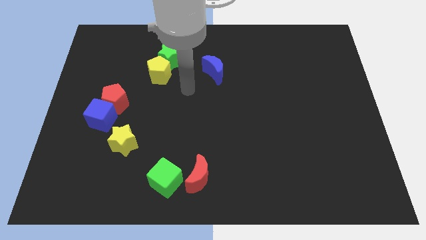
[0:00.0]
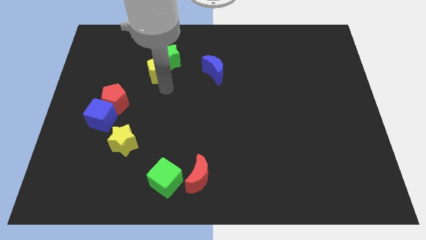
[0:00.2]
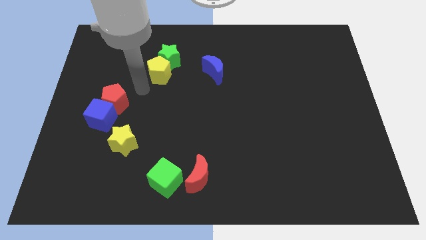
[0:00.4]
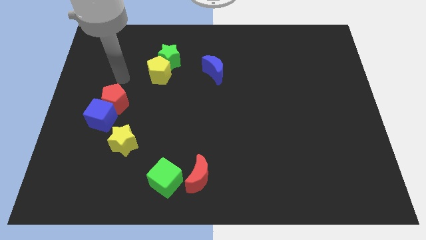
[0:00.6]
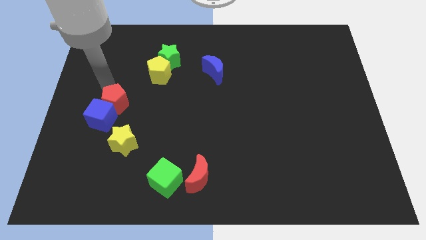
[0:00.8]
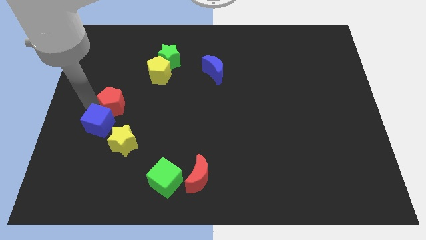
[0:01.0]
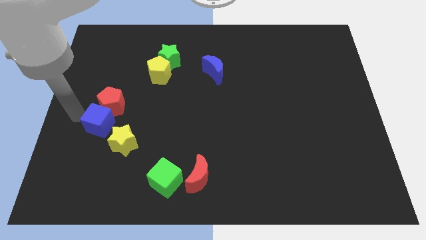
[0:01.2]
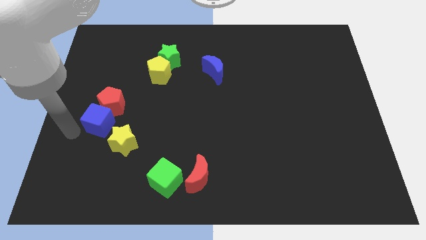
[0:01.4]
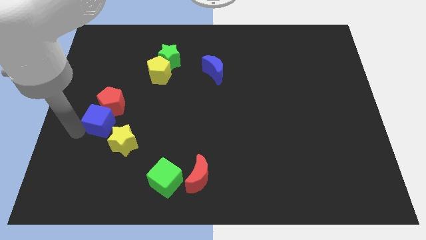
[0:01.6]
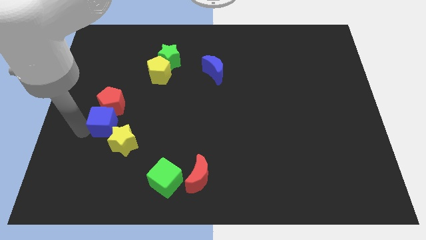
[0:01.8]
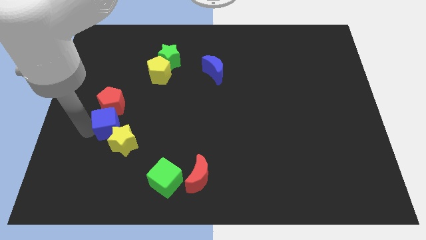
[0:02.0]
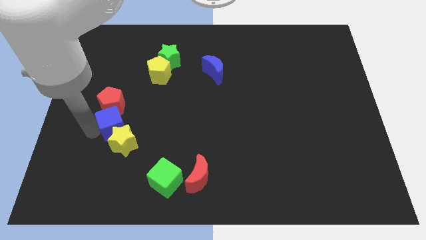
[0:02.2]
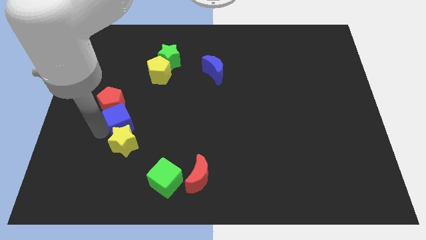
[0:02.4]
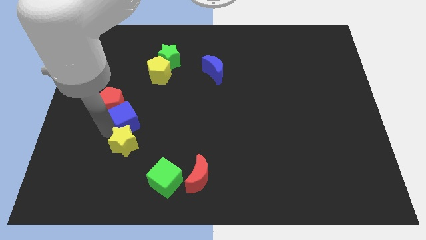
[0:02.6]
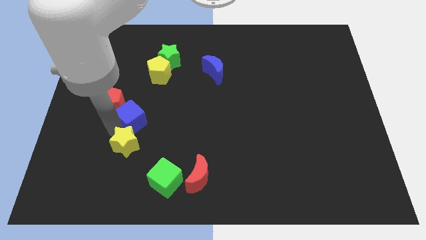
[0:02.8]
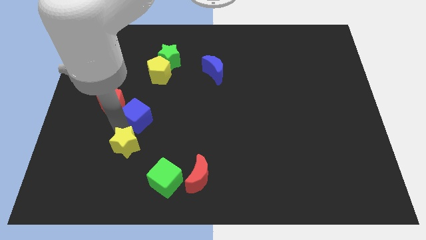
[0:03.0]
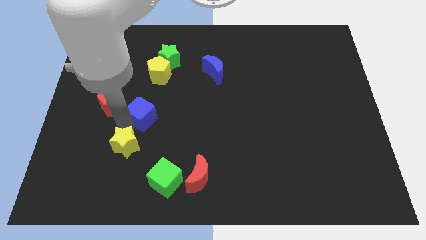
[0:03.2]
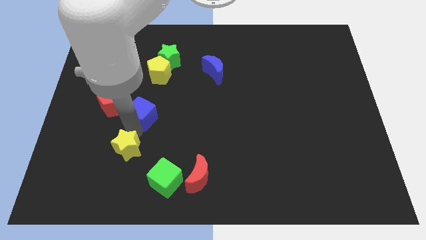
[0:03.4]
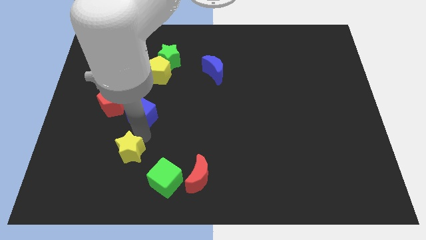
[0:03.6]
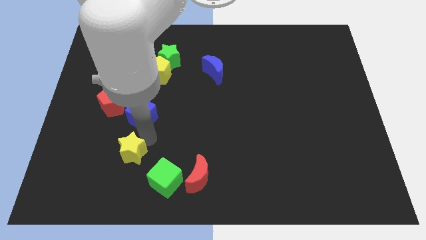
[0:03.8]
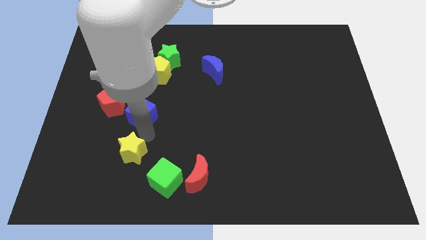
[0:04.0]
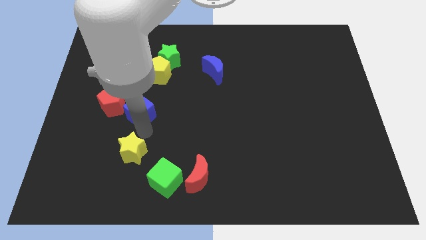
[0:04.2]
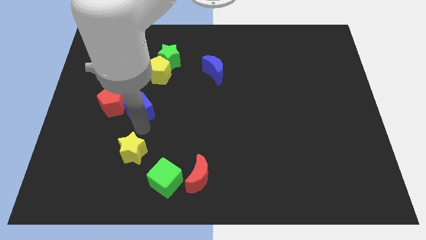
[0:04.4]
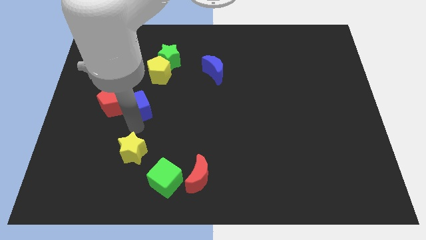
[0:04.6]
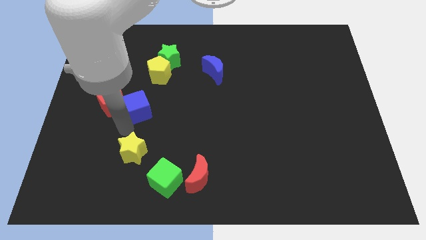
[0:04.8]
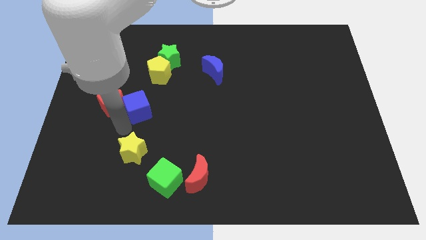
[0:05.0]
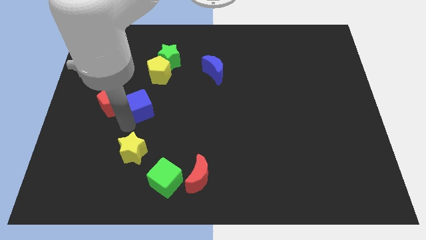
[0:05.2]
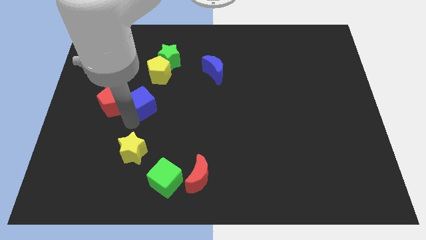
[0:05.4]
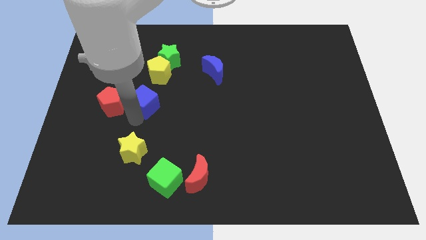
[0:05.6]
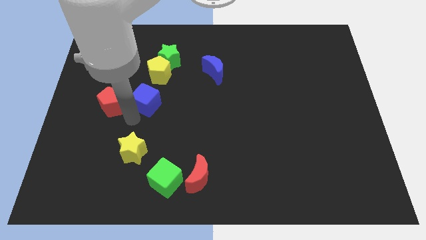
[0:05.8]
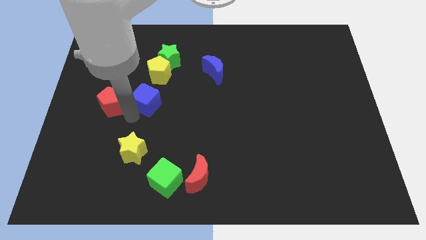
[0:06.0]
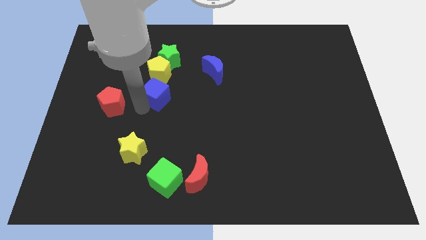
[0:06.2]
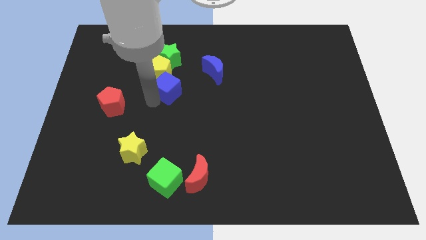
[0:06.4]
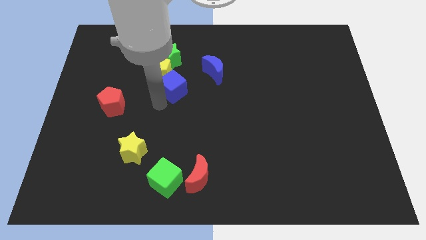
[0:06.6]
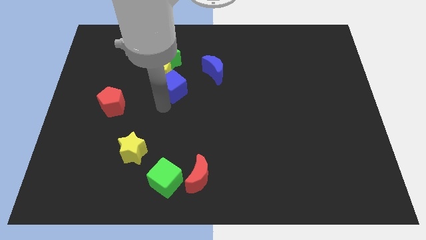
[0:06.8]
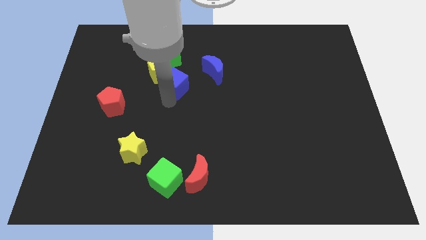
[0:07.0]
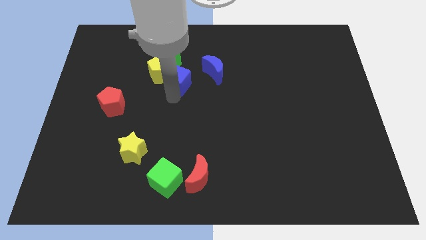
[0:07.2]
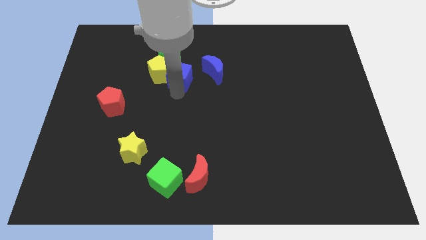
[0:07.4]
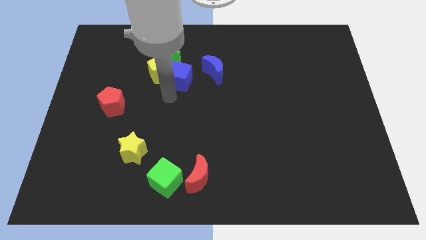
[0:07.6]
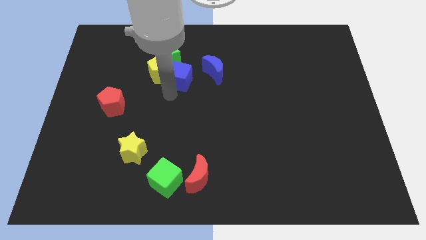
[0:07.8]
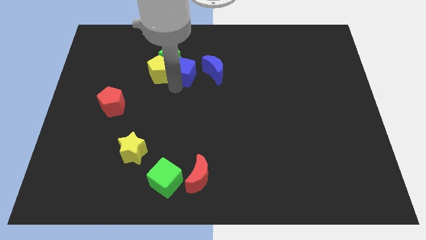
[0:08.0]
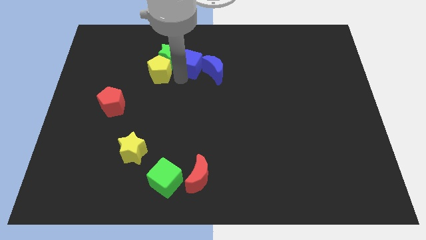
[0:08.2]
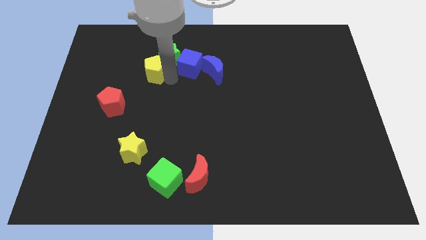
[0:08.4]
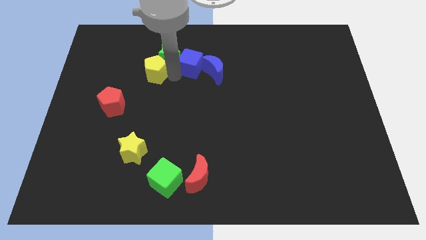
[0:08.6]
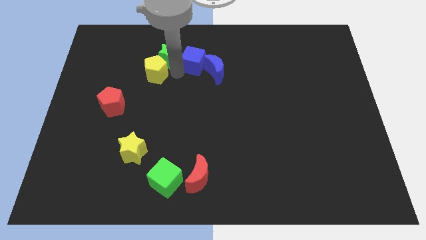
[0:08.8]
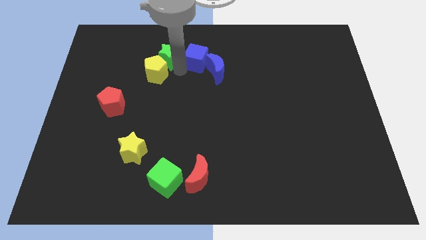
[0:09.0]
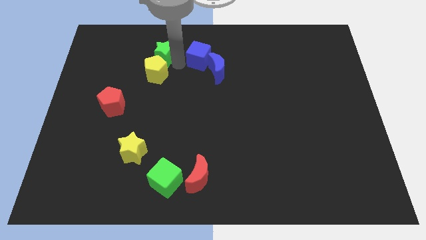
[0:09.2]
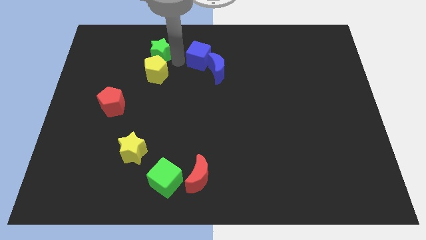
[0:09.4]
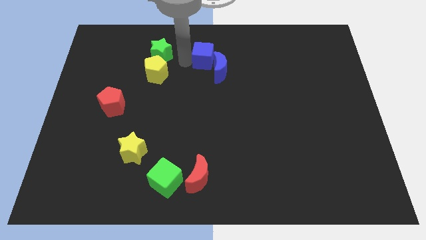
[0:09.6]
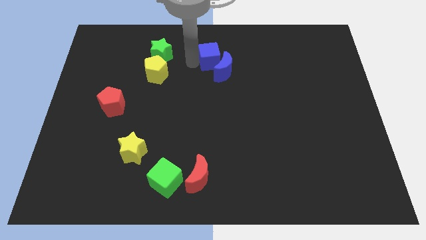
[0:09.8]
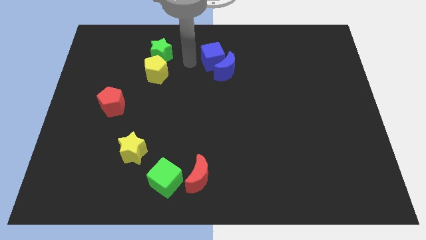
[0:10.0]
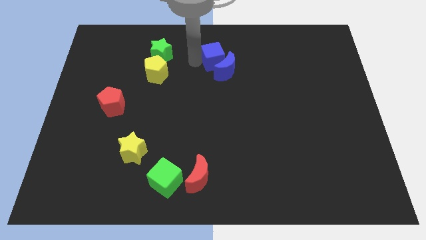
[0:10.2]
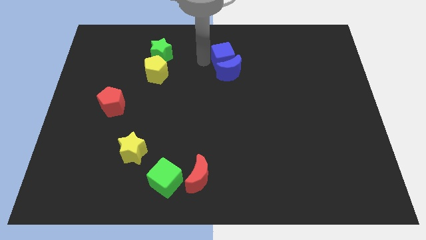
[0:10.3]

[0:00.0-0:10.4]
move the blue cube diagonally up and to the right of the blue moon

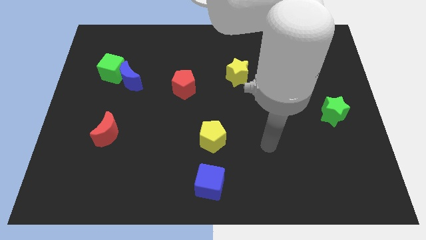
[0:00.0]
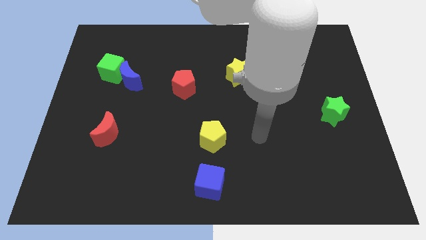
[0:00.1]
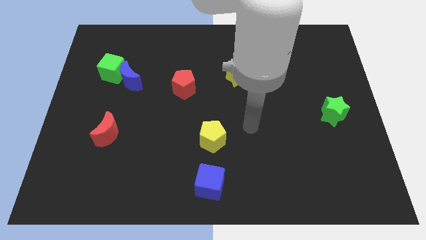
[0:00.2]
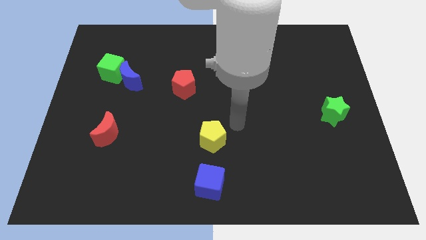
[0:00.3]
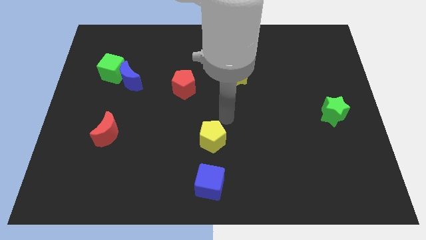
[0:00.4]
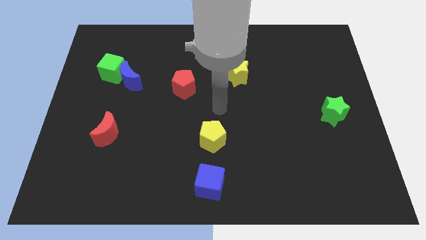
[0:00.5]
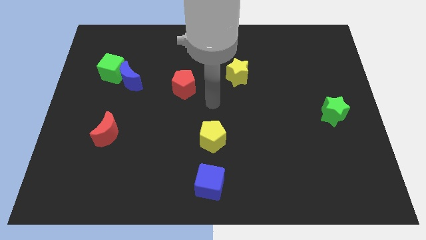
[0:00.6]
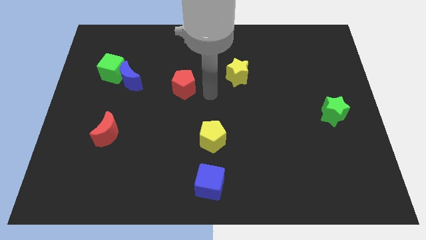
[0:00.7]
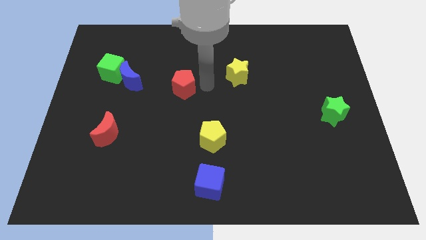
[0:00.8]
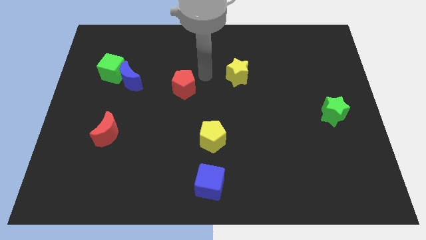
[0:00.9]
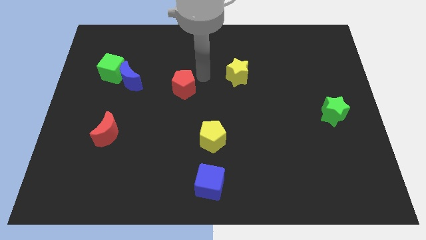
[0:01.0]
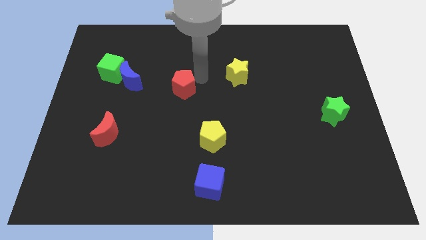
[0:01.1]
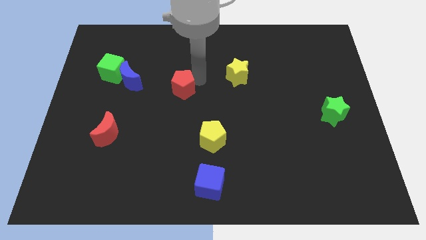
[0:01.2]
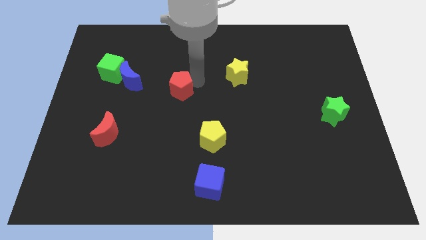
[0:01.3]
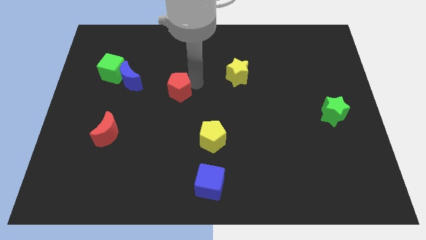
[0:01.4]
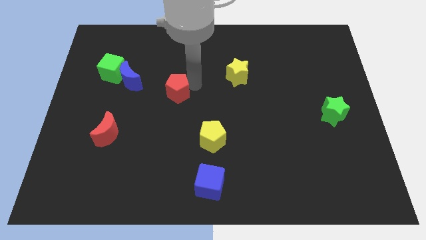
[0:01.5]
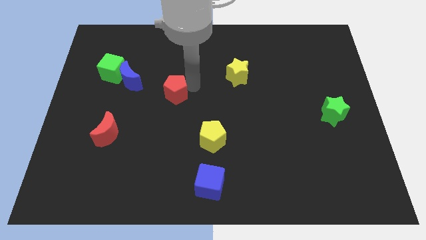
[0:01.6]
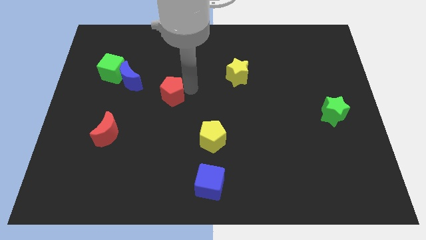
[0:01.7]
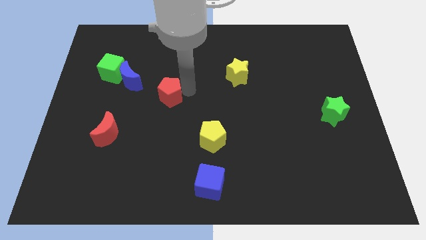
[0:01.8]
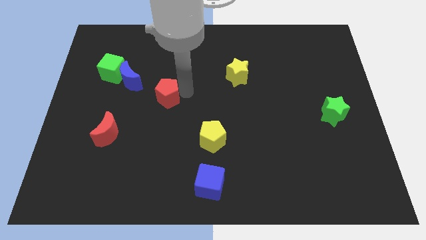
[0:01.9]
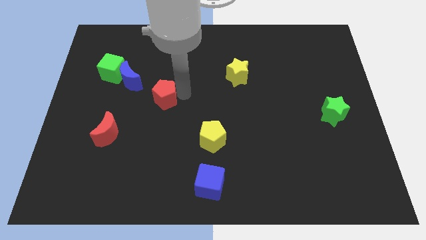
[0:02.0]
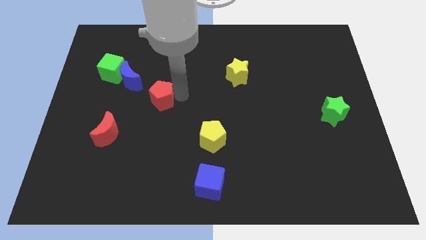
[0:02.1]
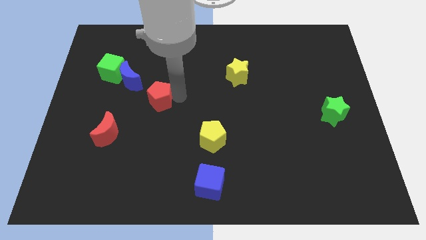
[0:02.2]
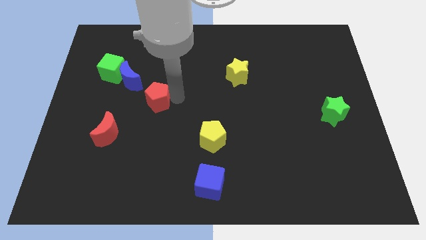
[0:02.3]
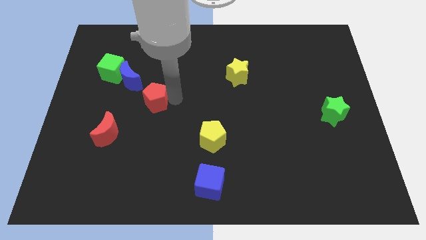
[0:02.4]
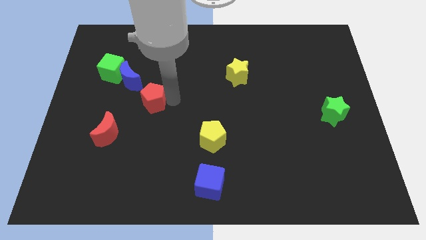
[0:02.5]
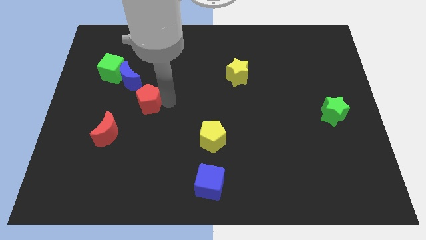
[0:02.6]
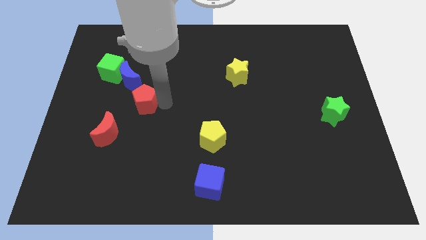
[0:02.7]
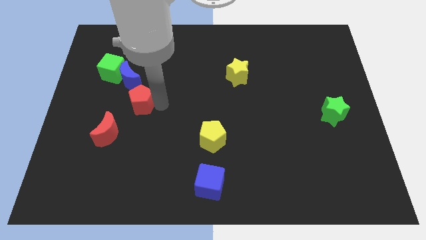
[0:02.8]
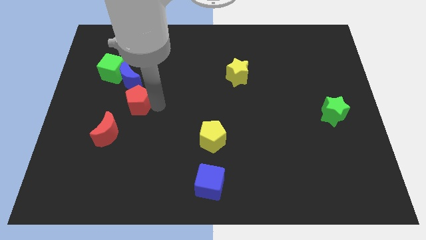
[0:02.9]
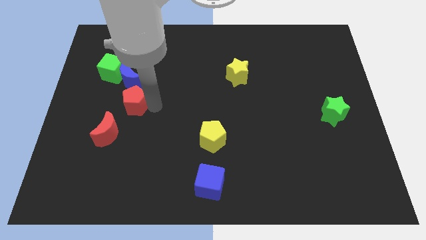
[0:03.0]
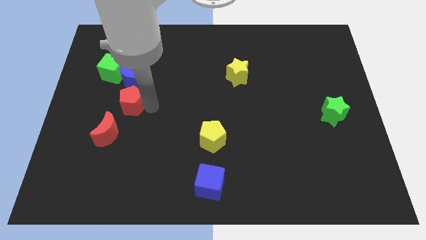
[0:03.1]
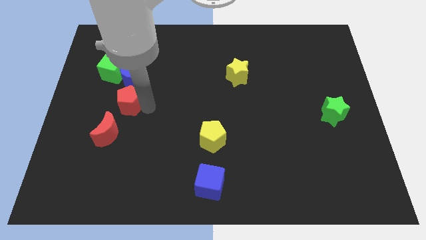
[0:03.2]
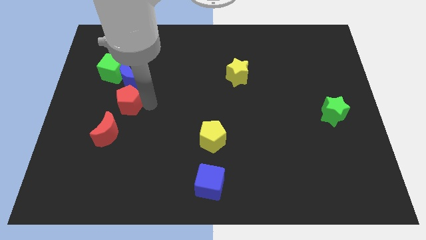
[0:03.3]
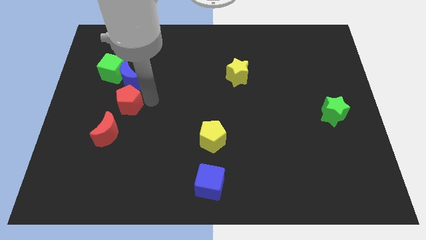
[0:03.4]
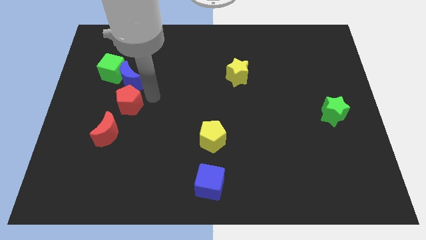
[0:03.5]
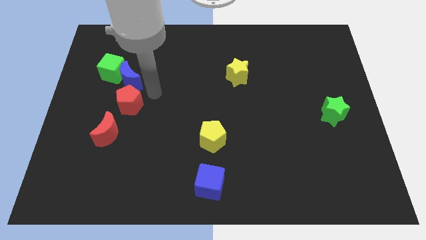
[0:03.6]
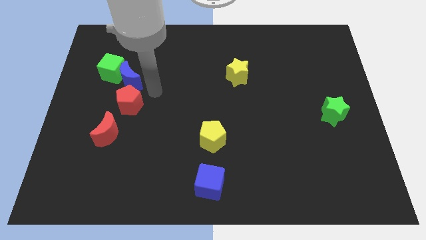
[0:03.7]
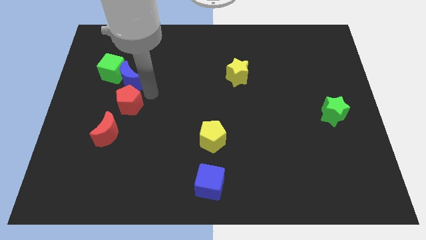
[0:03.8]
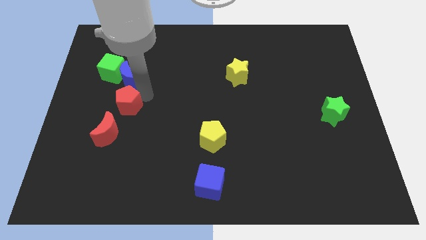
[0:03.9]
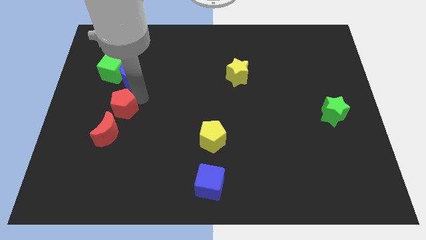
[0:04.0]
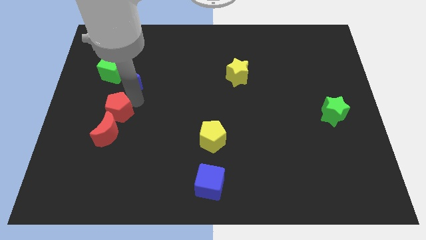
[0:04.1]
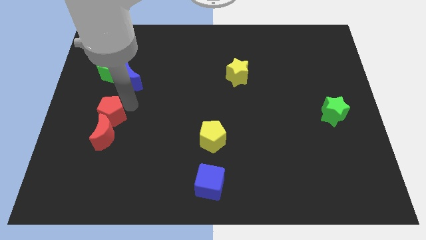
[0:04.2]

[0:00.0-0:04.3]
move the red pentagon diagonally up and to the left of the red moon
